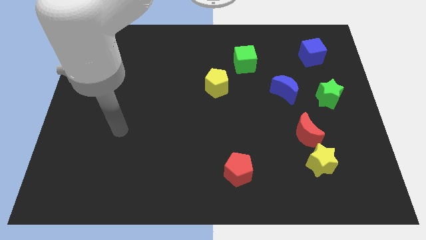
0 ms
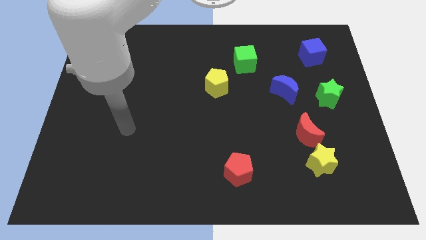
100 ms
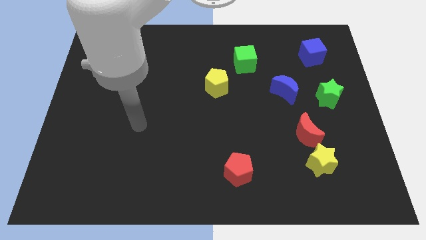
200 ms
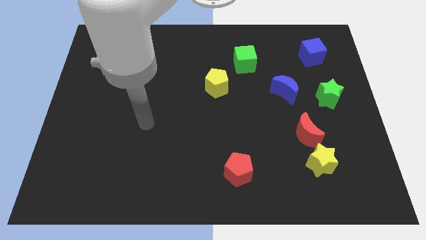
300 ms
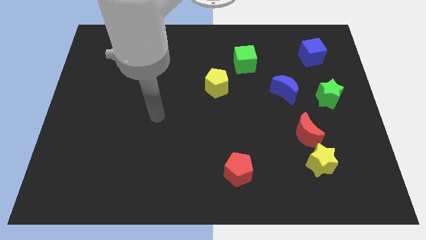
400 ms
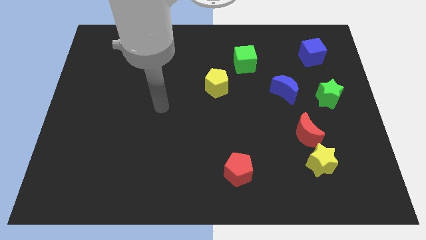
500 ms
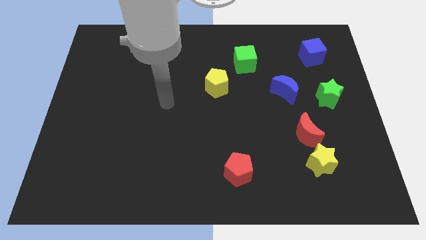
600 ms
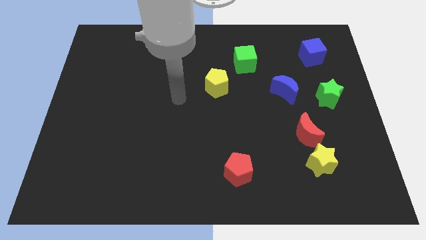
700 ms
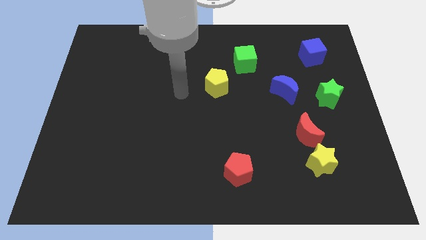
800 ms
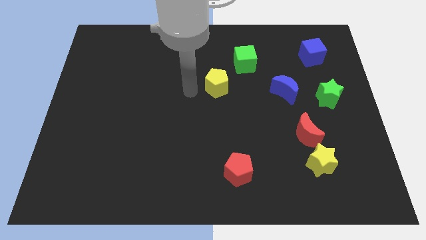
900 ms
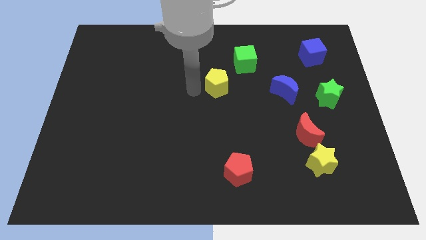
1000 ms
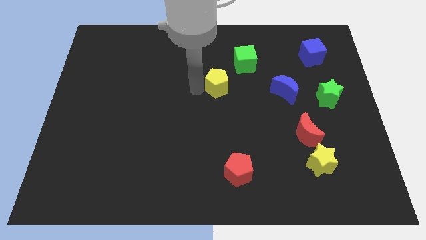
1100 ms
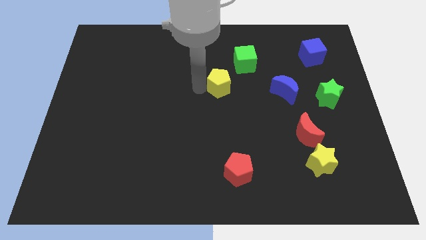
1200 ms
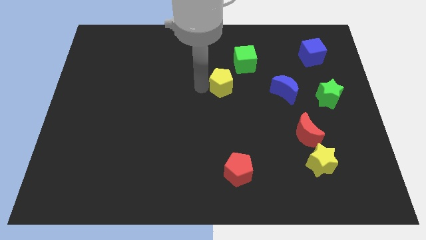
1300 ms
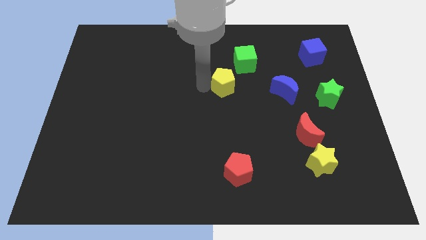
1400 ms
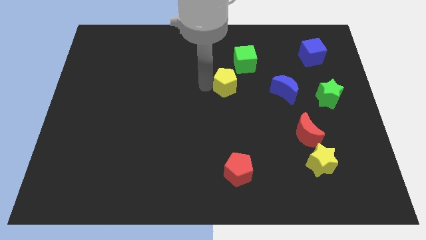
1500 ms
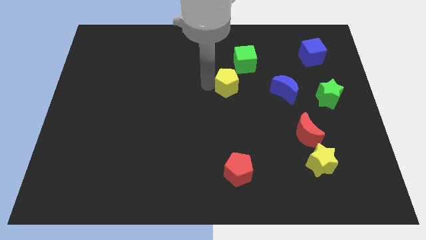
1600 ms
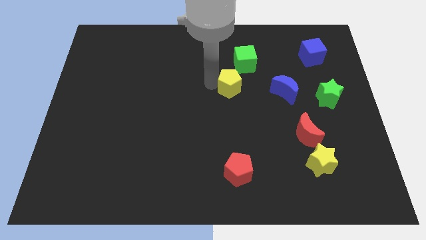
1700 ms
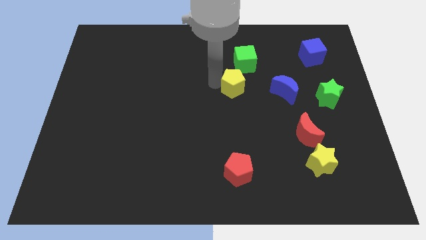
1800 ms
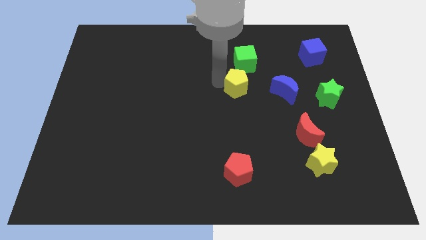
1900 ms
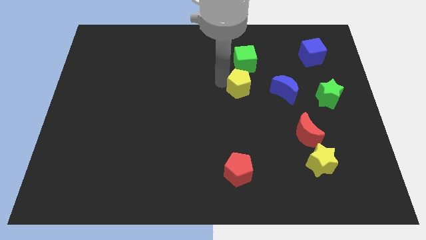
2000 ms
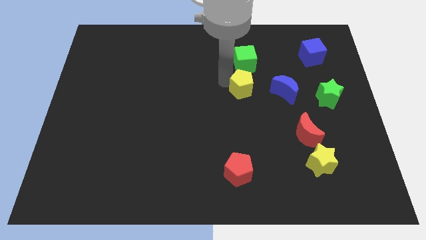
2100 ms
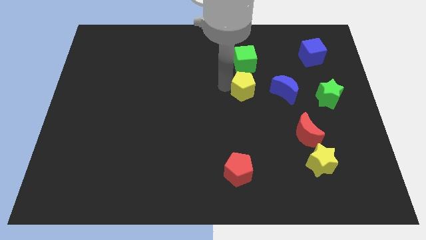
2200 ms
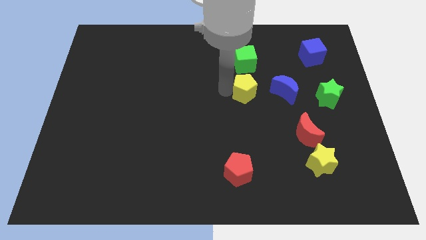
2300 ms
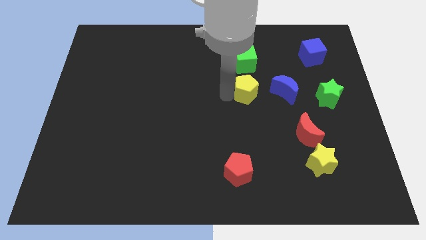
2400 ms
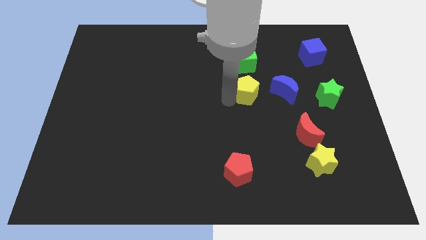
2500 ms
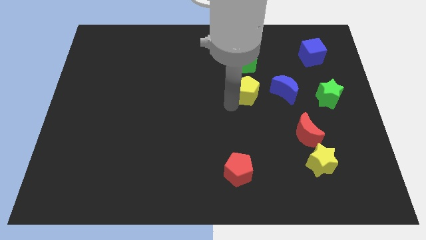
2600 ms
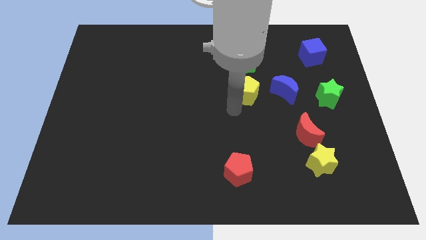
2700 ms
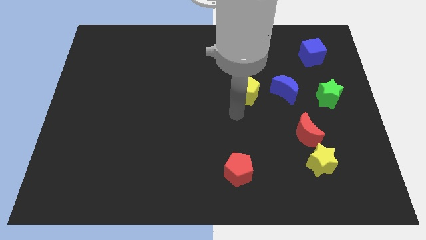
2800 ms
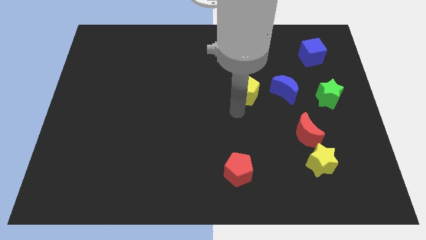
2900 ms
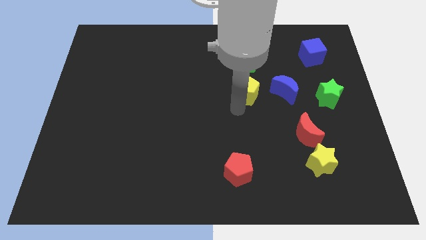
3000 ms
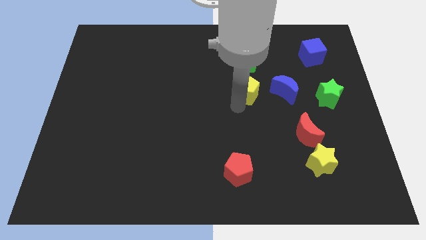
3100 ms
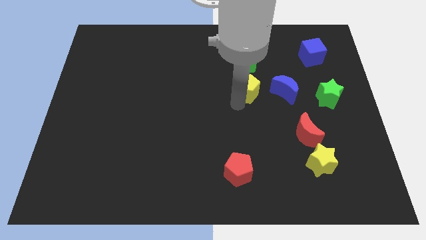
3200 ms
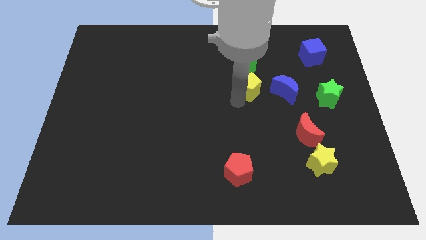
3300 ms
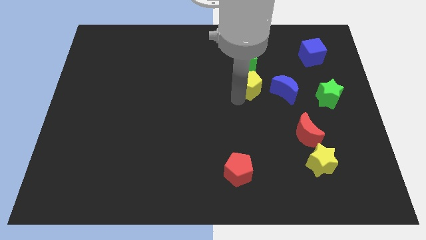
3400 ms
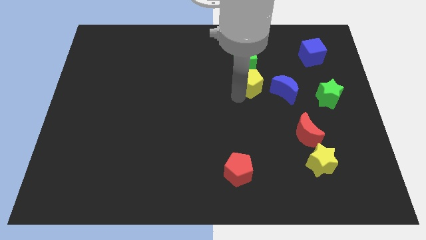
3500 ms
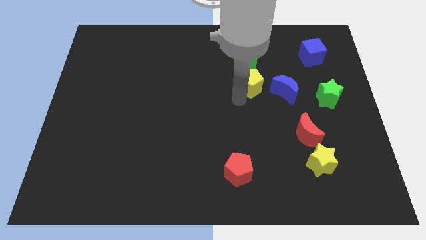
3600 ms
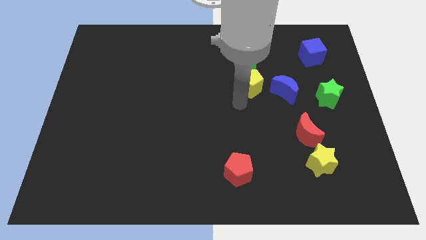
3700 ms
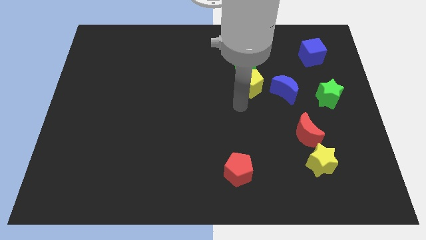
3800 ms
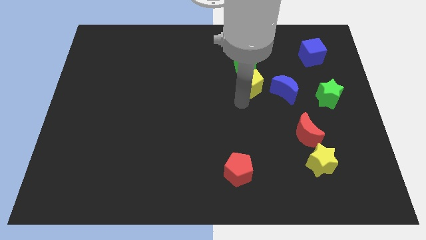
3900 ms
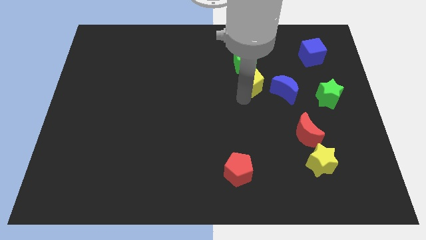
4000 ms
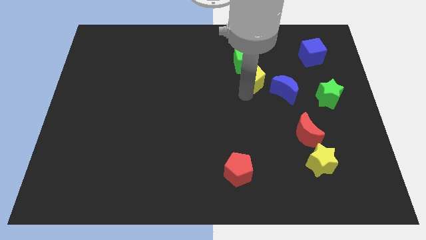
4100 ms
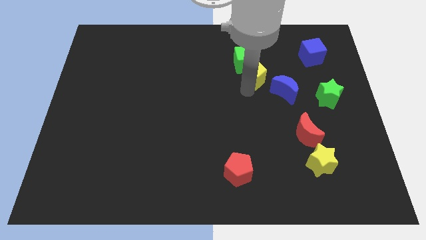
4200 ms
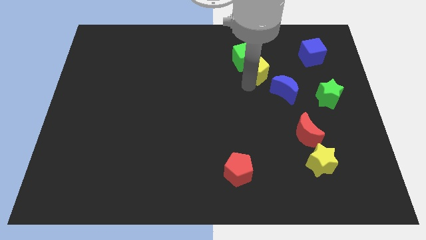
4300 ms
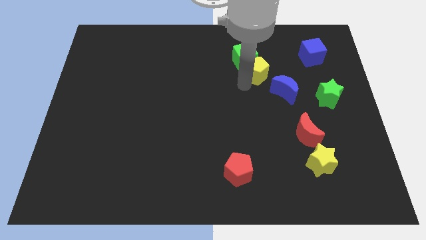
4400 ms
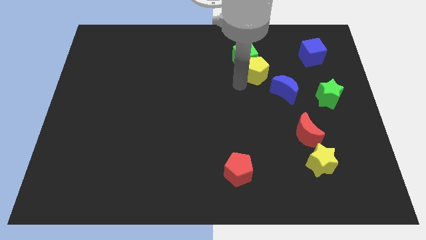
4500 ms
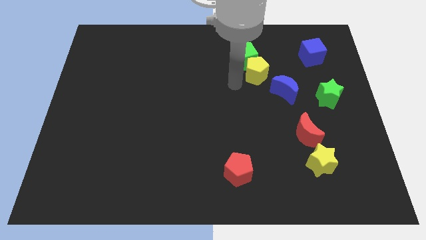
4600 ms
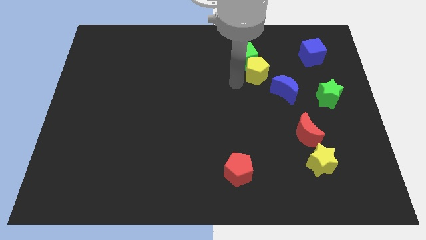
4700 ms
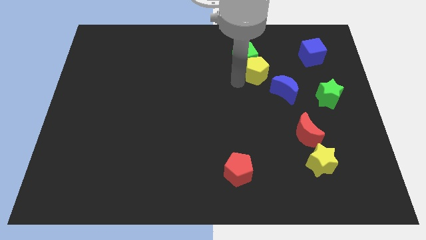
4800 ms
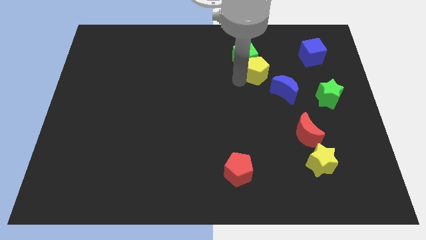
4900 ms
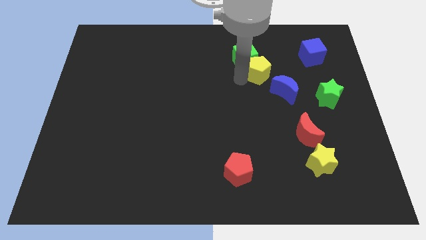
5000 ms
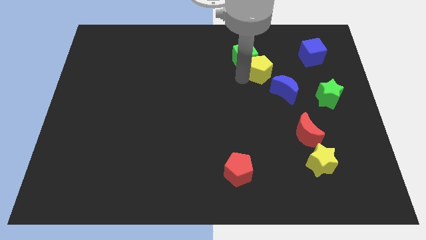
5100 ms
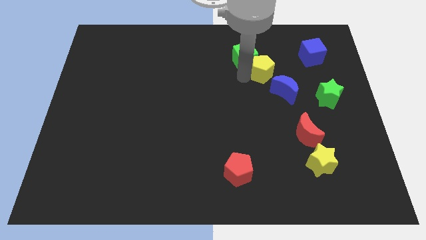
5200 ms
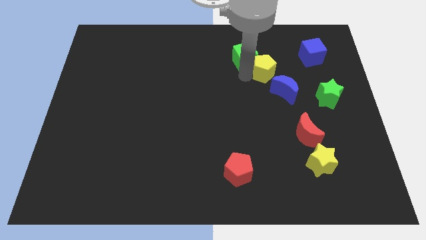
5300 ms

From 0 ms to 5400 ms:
slide the yellow pentagon to the top of the blue moon
